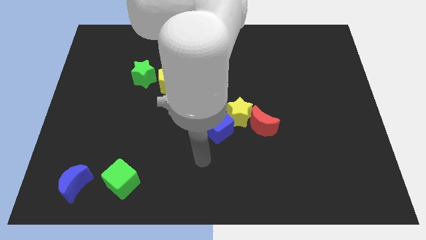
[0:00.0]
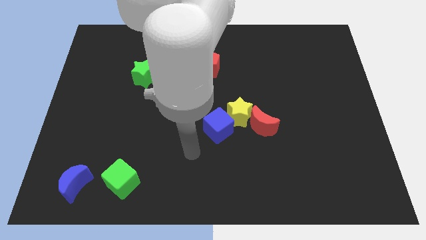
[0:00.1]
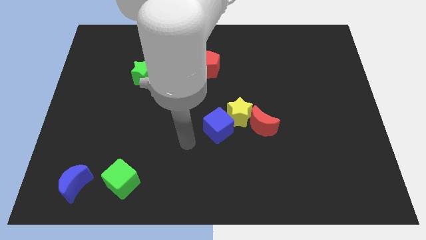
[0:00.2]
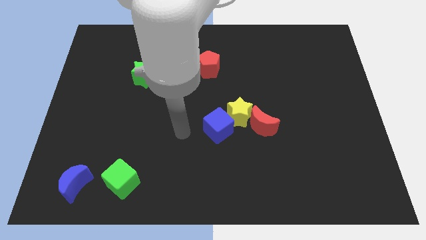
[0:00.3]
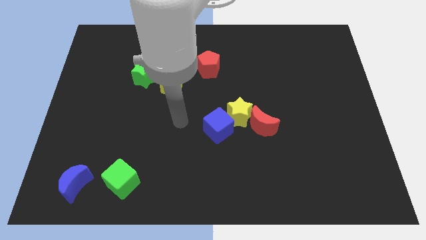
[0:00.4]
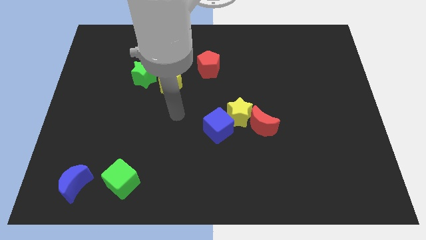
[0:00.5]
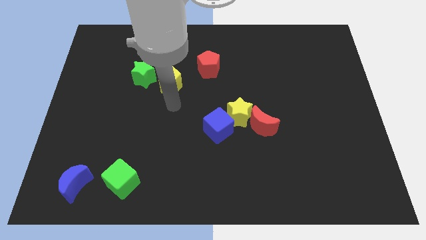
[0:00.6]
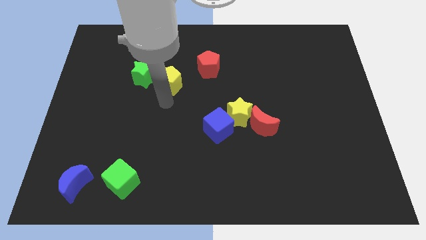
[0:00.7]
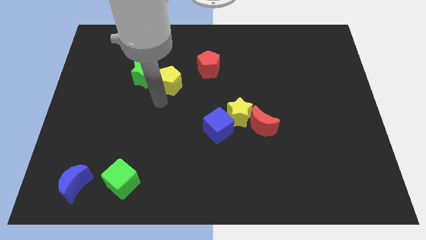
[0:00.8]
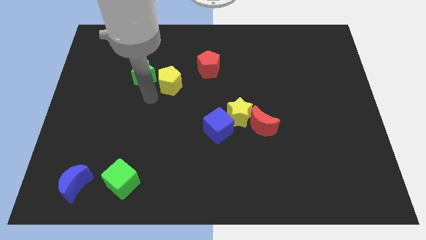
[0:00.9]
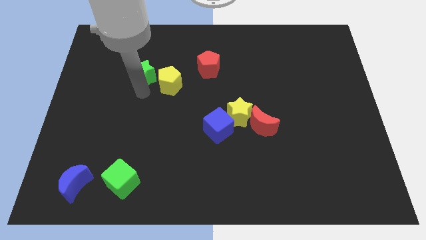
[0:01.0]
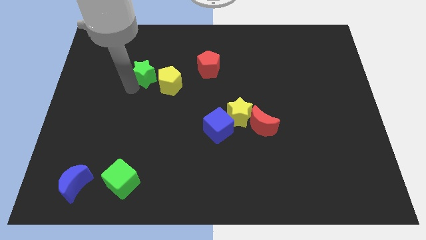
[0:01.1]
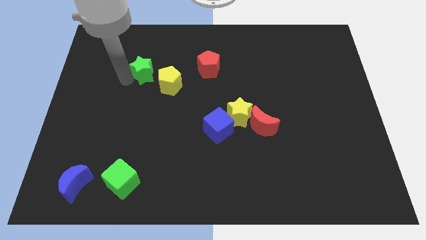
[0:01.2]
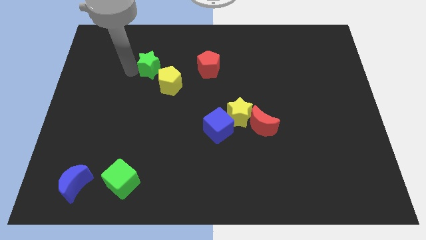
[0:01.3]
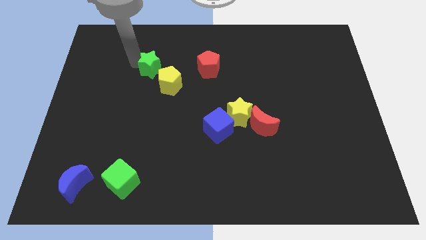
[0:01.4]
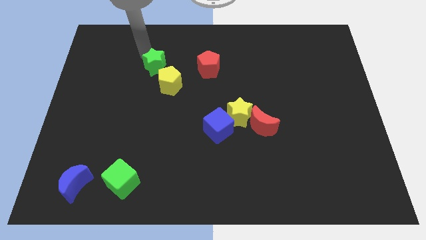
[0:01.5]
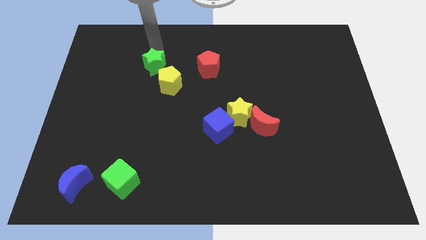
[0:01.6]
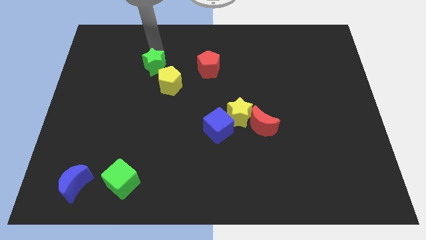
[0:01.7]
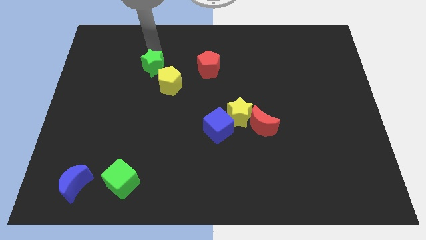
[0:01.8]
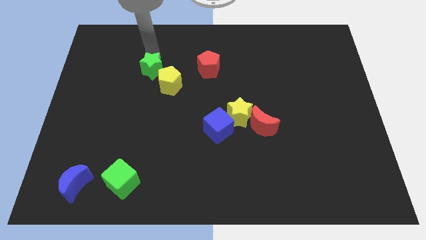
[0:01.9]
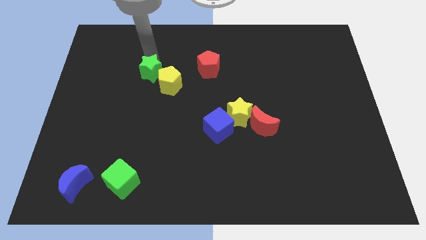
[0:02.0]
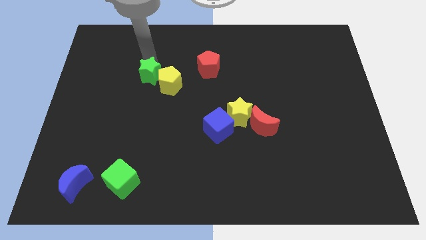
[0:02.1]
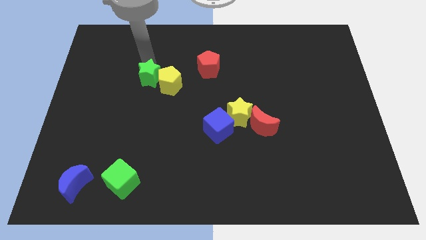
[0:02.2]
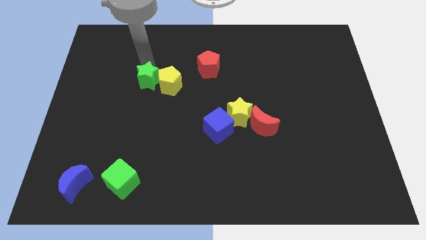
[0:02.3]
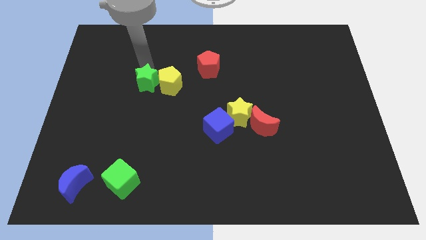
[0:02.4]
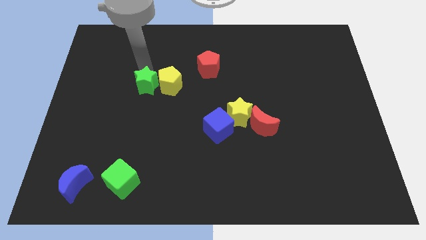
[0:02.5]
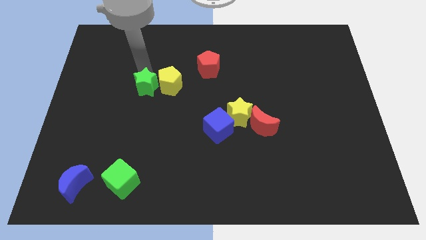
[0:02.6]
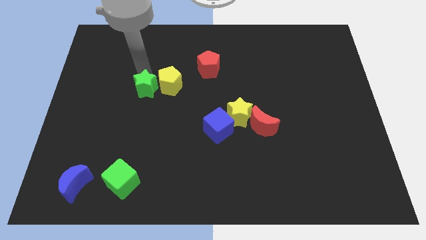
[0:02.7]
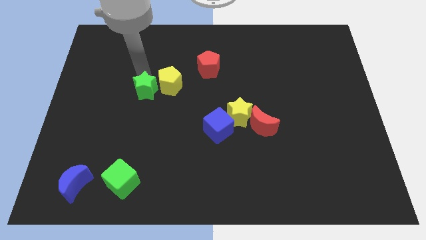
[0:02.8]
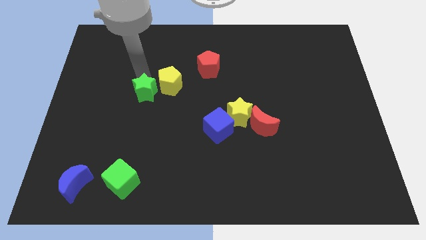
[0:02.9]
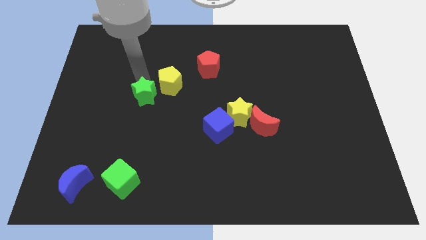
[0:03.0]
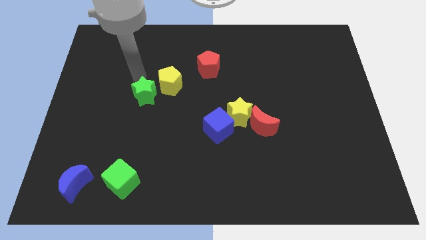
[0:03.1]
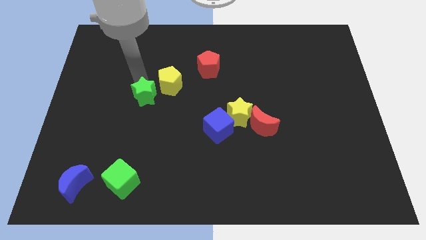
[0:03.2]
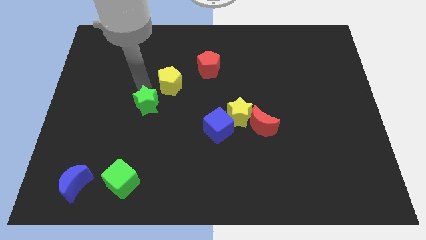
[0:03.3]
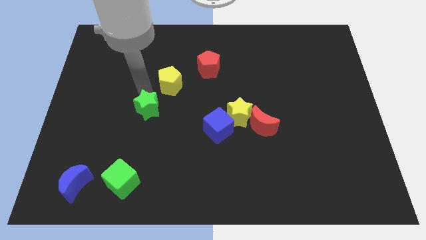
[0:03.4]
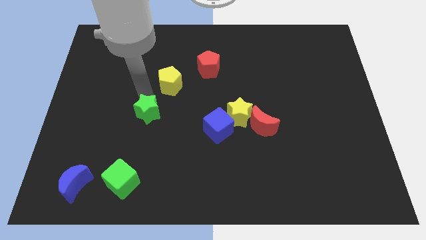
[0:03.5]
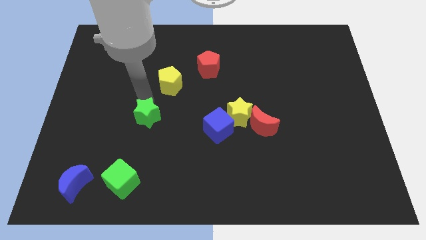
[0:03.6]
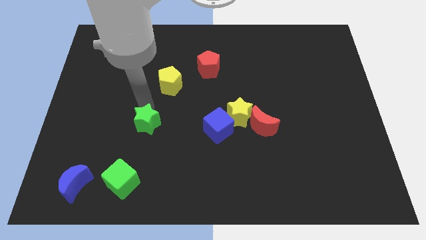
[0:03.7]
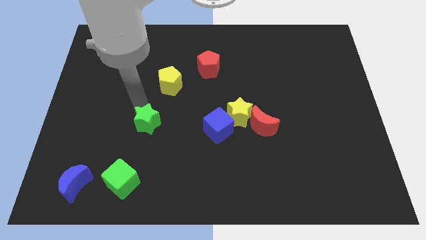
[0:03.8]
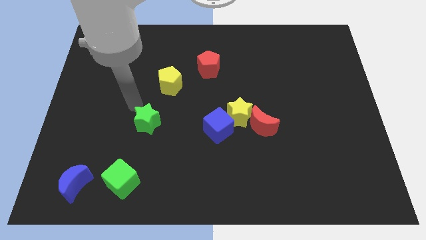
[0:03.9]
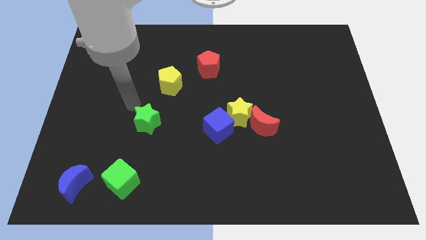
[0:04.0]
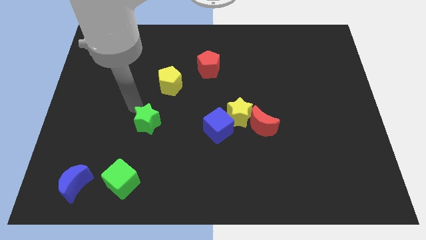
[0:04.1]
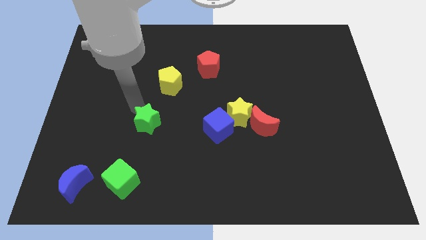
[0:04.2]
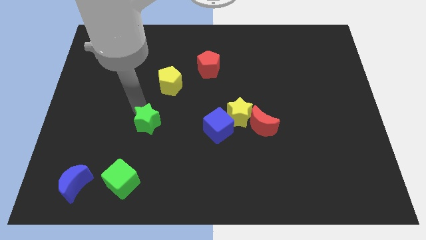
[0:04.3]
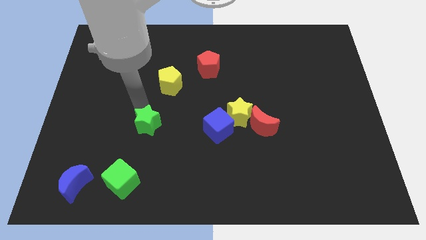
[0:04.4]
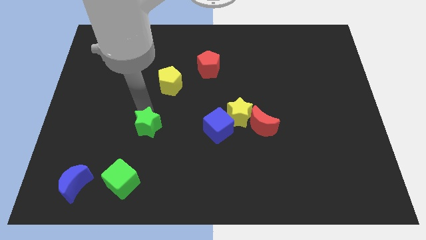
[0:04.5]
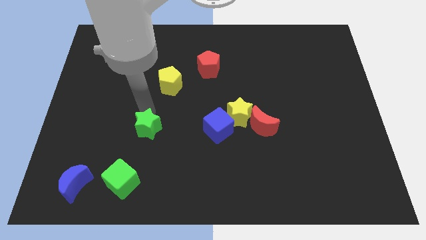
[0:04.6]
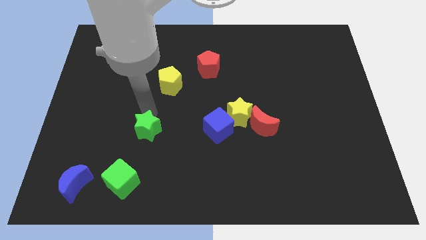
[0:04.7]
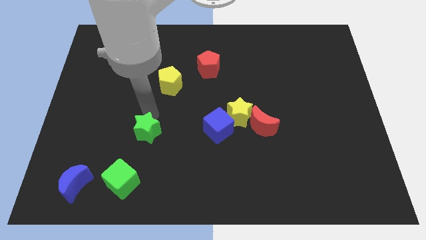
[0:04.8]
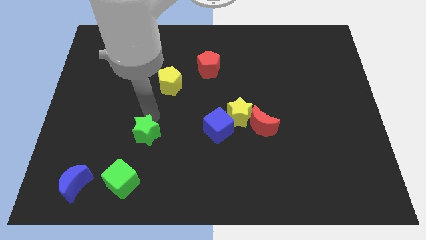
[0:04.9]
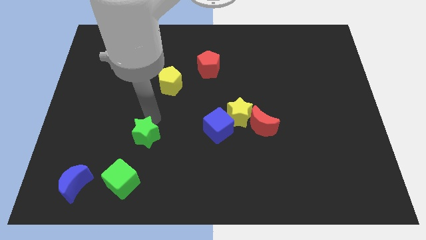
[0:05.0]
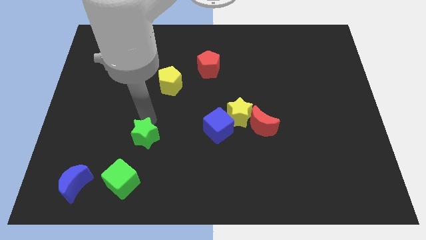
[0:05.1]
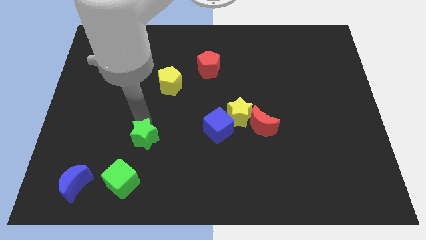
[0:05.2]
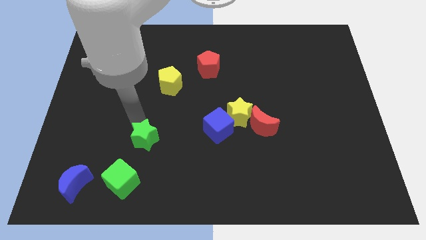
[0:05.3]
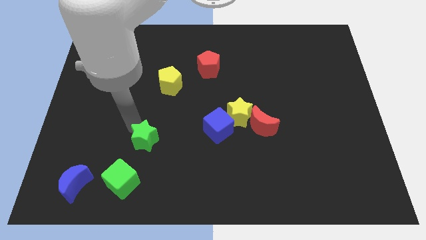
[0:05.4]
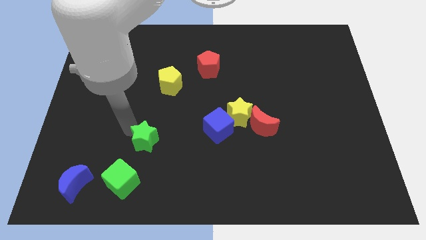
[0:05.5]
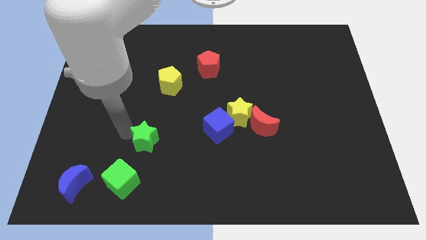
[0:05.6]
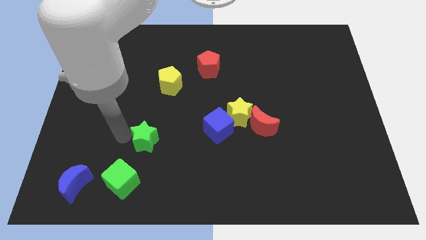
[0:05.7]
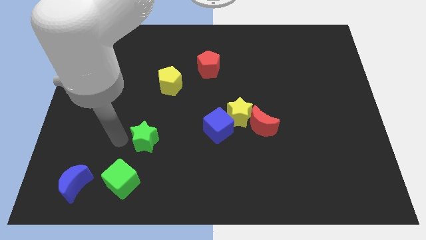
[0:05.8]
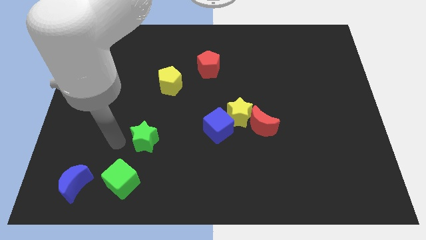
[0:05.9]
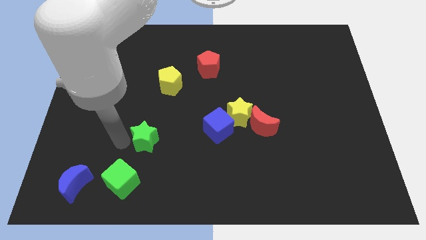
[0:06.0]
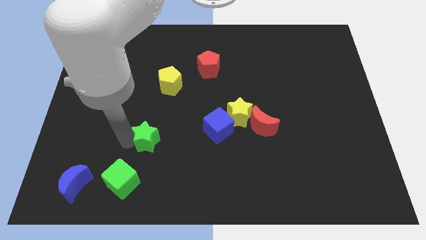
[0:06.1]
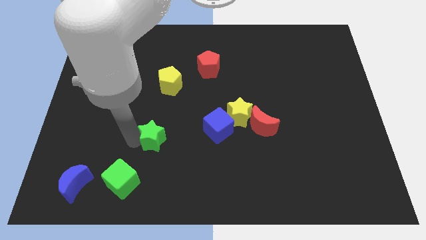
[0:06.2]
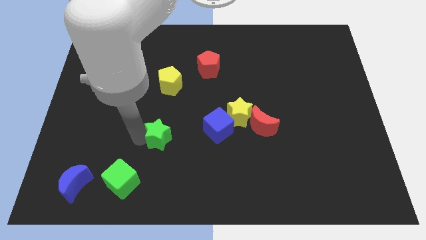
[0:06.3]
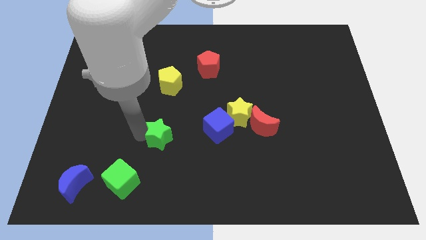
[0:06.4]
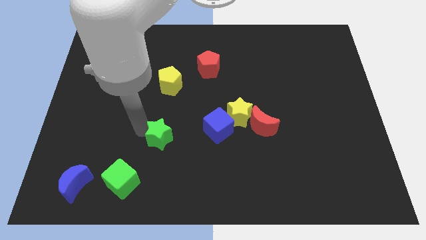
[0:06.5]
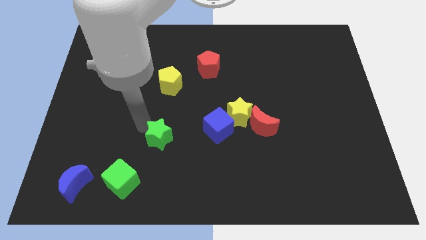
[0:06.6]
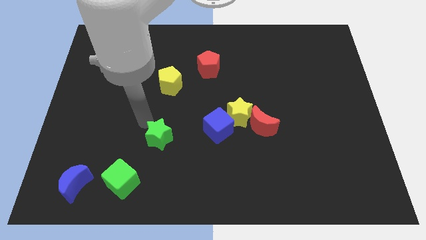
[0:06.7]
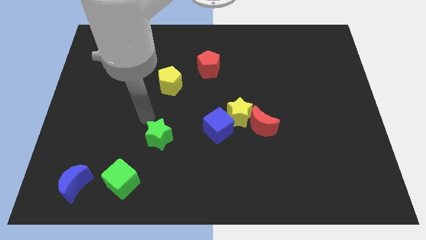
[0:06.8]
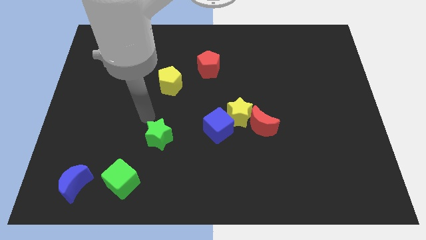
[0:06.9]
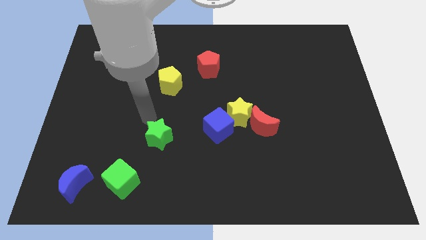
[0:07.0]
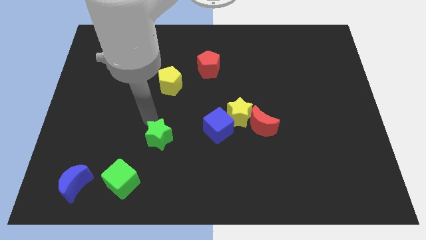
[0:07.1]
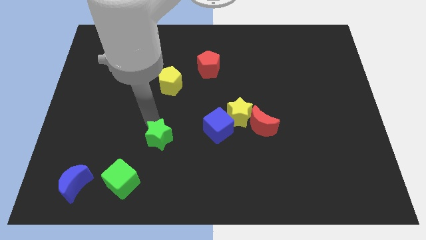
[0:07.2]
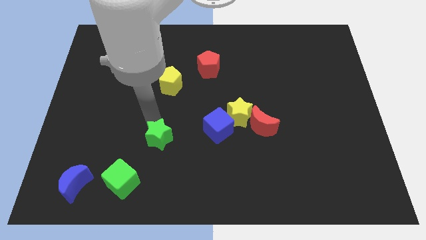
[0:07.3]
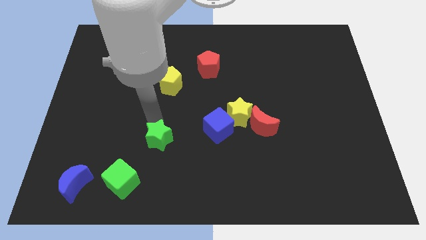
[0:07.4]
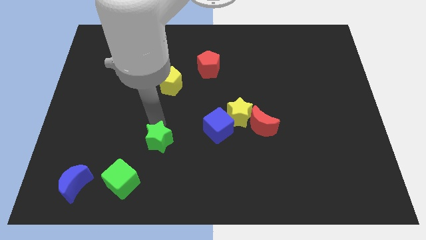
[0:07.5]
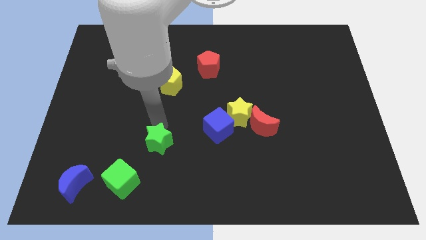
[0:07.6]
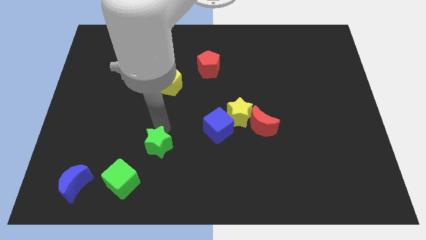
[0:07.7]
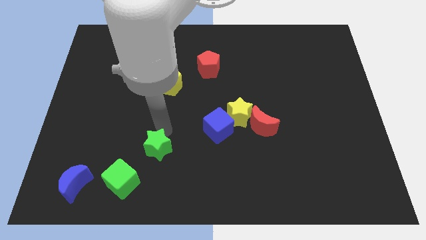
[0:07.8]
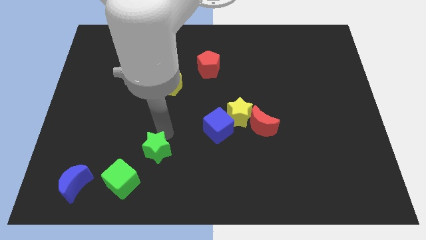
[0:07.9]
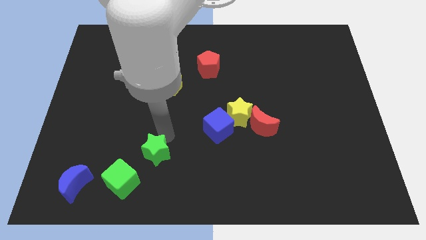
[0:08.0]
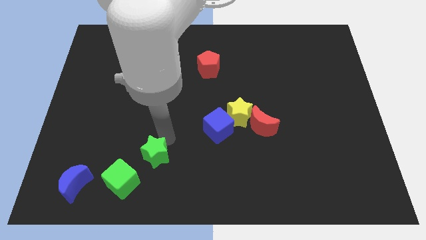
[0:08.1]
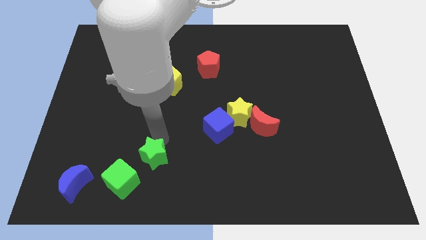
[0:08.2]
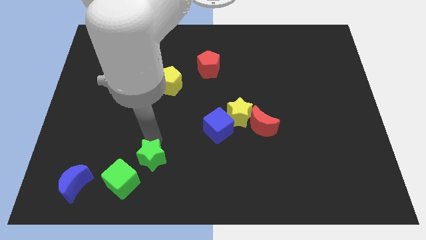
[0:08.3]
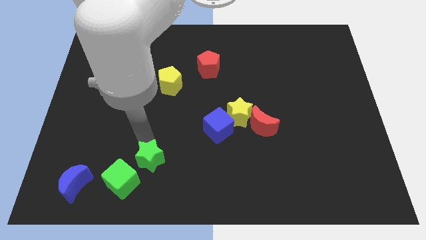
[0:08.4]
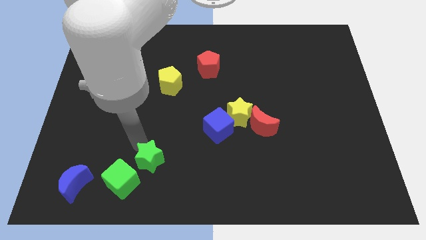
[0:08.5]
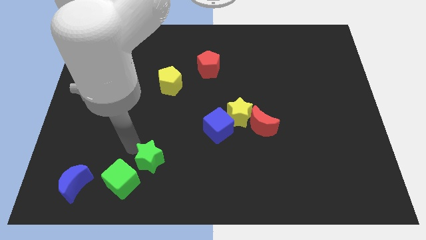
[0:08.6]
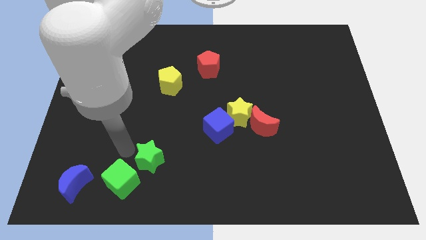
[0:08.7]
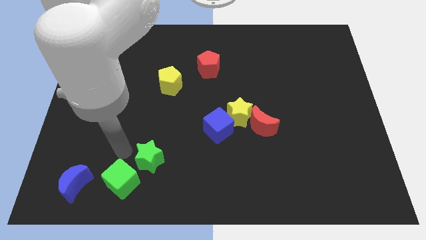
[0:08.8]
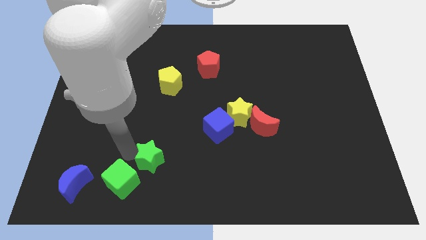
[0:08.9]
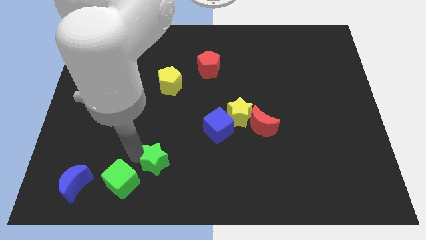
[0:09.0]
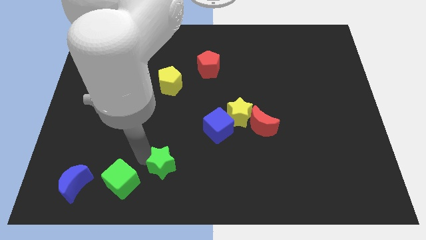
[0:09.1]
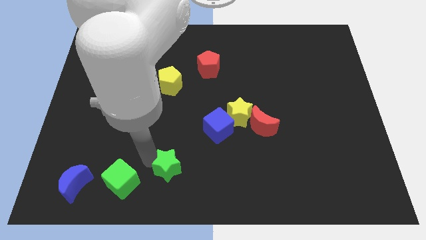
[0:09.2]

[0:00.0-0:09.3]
push the green star to the bottom side
